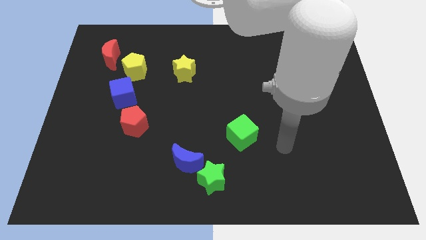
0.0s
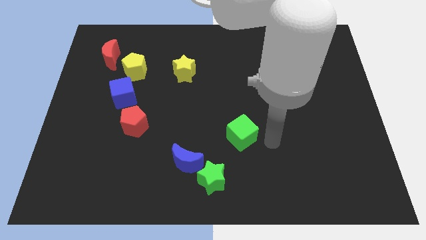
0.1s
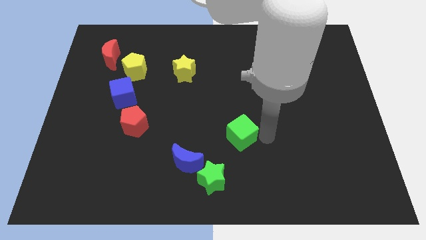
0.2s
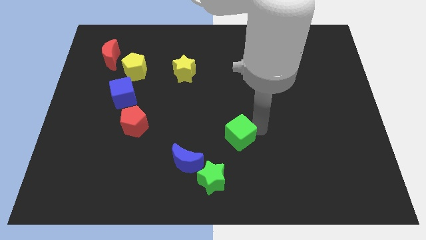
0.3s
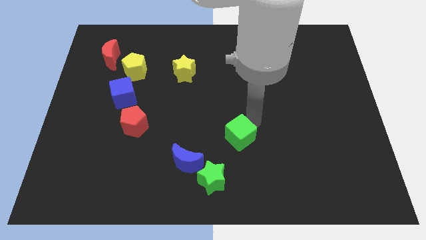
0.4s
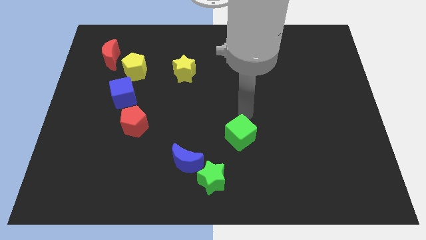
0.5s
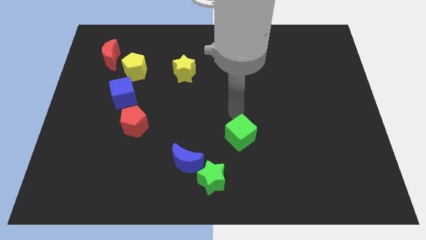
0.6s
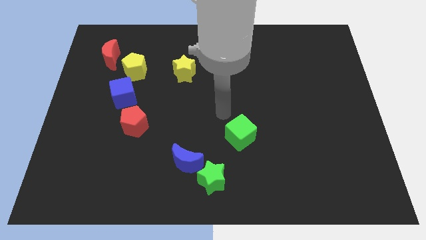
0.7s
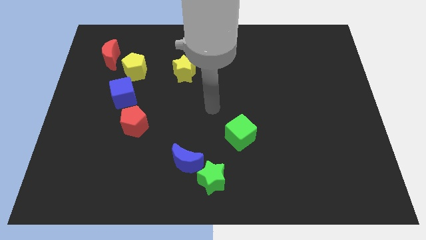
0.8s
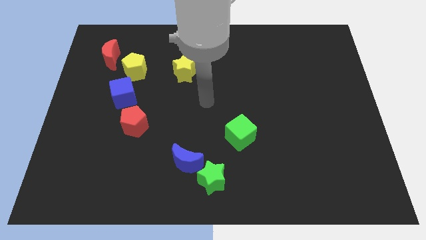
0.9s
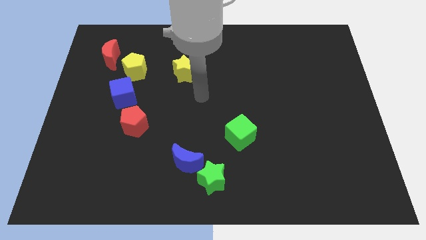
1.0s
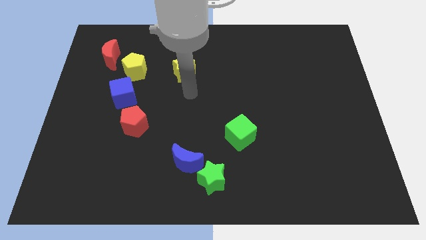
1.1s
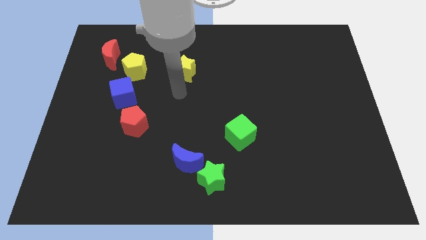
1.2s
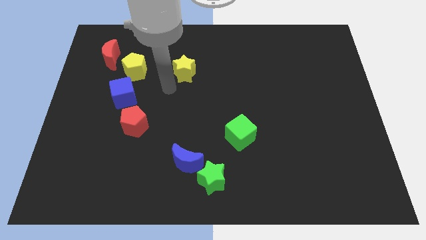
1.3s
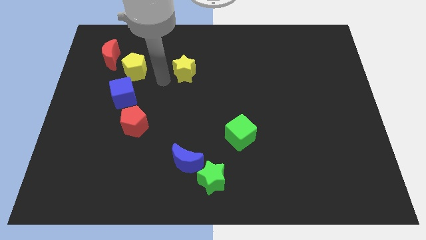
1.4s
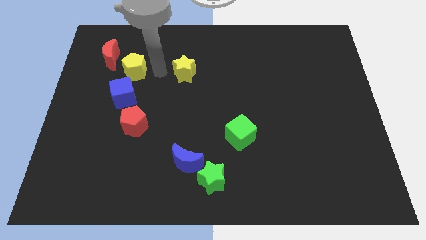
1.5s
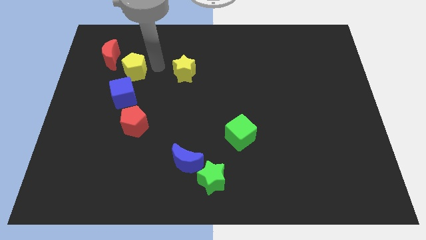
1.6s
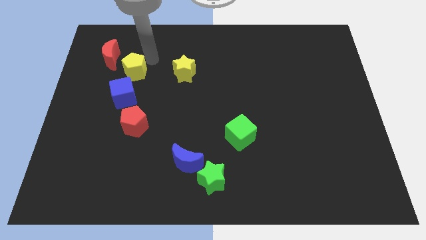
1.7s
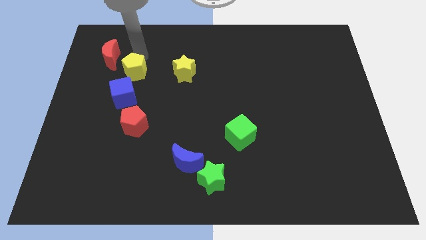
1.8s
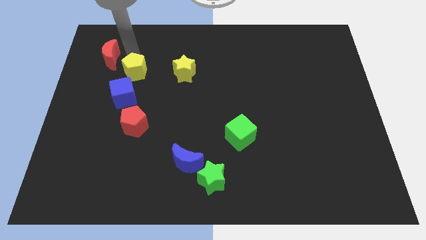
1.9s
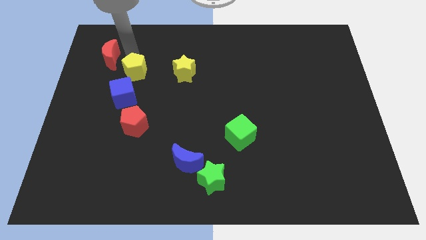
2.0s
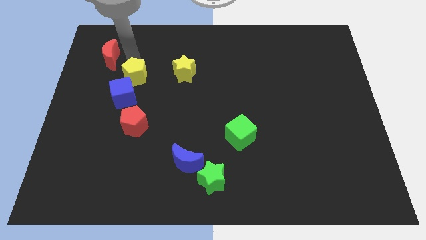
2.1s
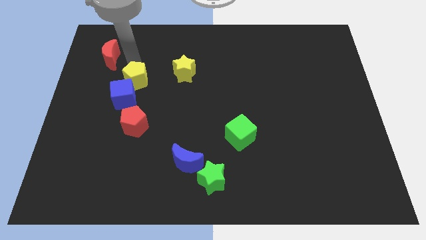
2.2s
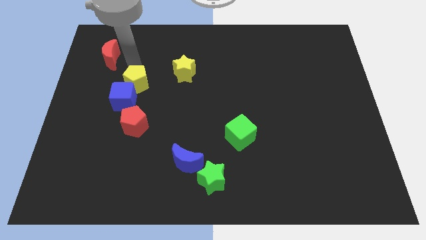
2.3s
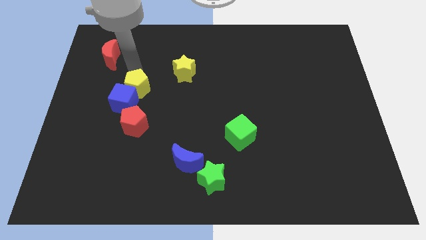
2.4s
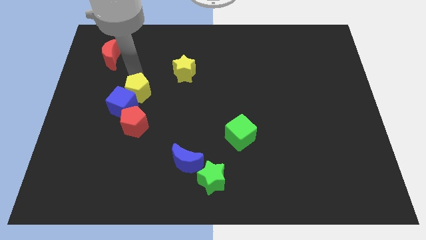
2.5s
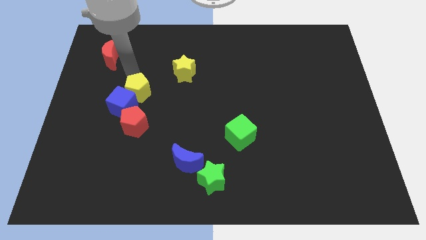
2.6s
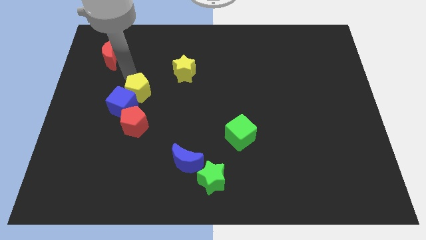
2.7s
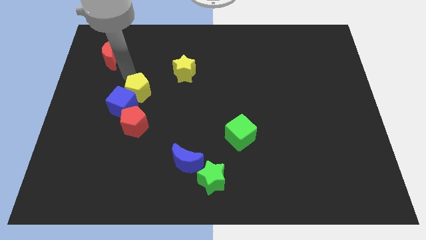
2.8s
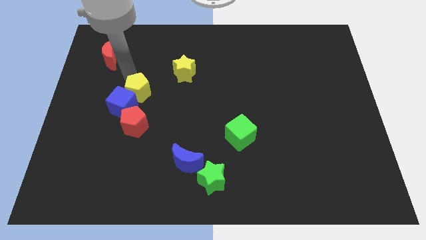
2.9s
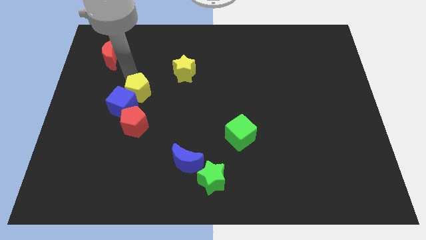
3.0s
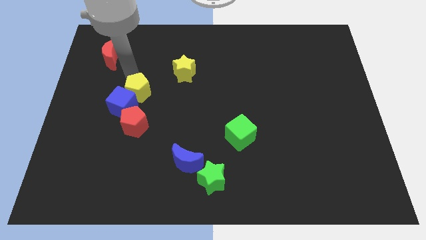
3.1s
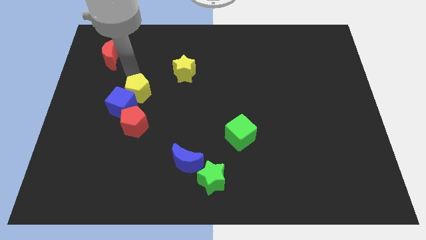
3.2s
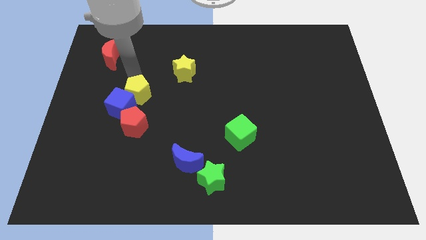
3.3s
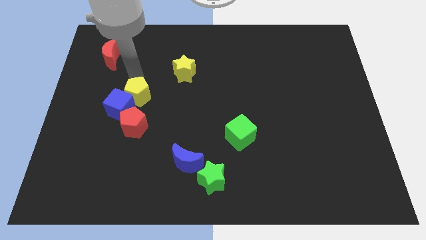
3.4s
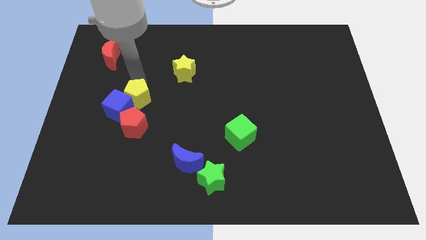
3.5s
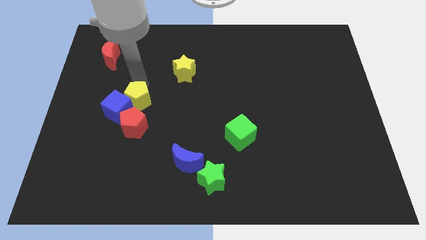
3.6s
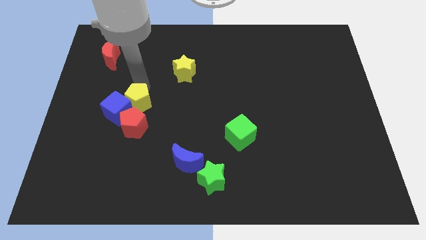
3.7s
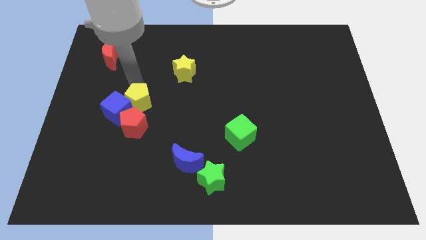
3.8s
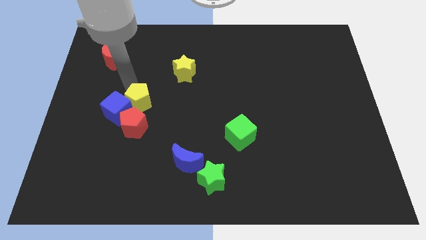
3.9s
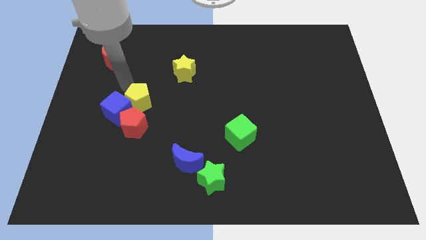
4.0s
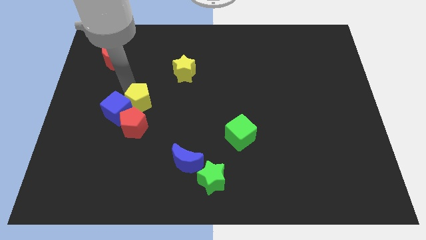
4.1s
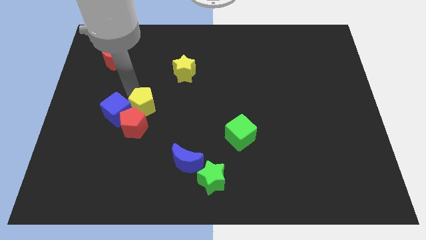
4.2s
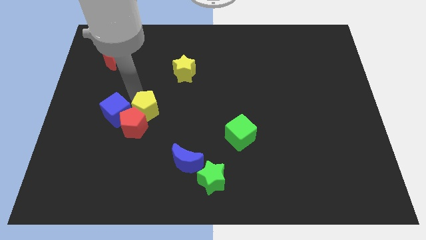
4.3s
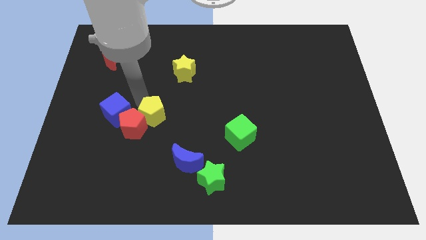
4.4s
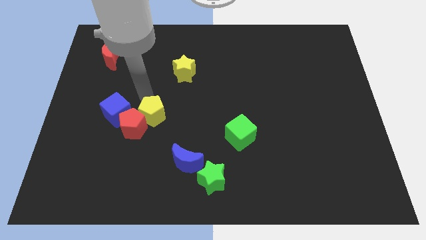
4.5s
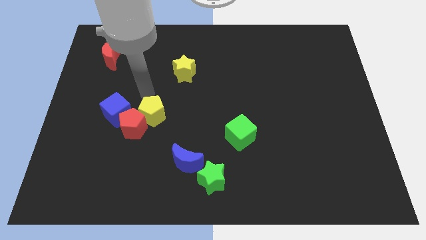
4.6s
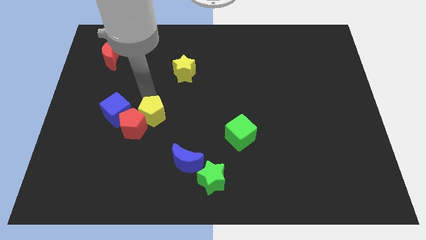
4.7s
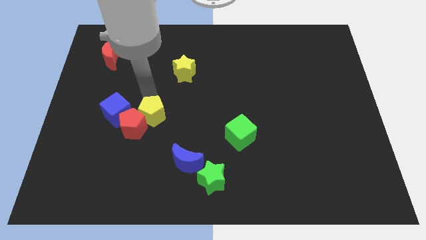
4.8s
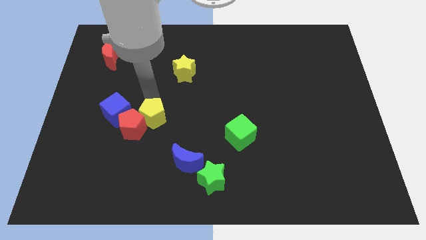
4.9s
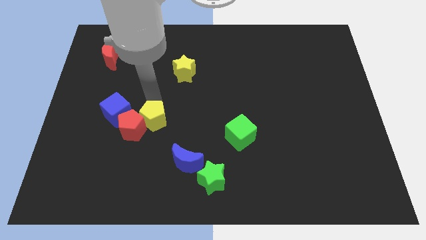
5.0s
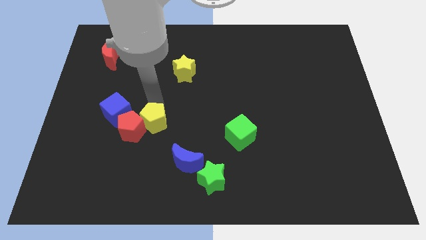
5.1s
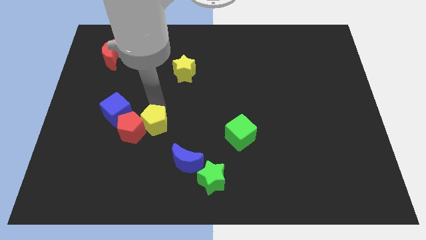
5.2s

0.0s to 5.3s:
put the yellow pentagon to the top left of the blue moon

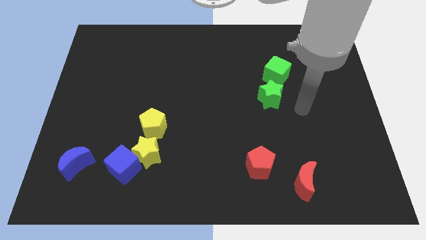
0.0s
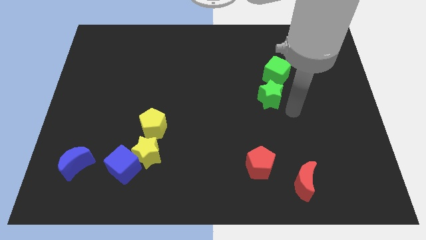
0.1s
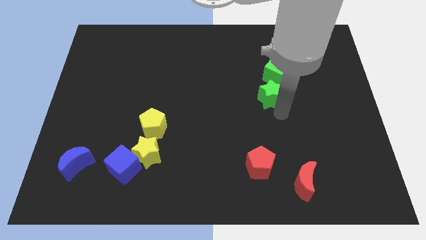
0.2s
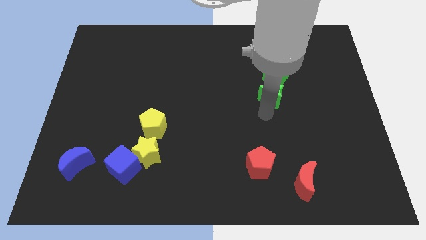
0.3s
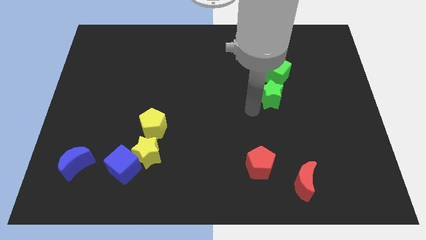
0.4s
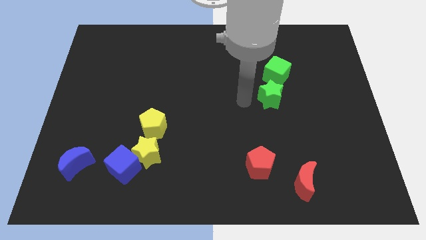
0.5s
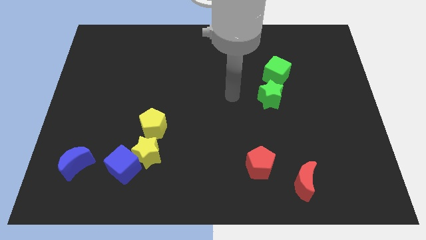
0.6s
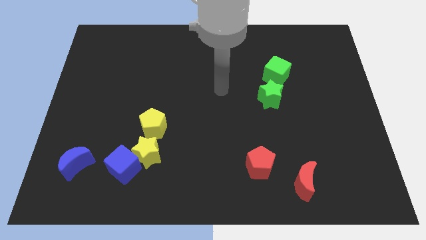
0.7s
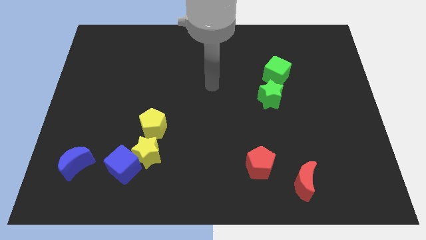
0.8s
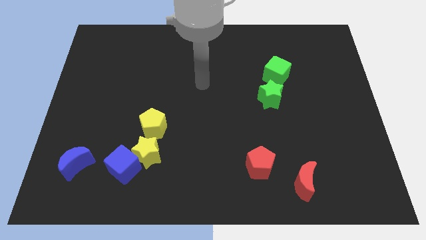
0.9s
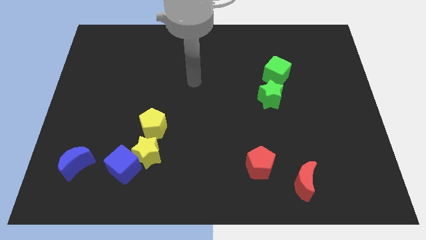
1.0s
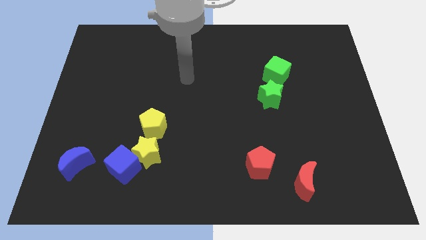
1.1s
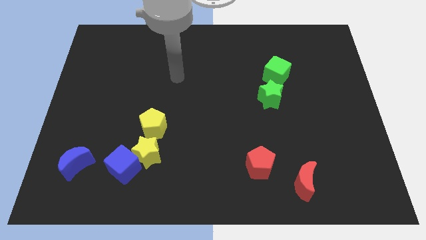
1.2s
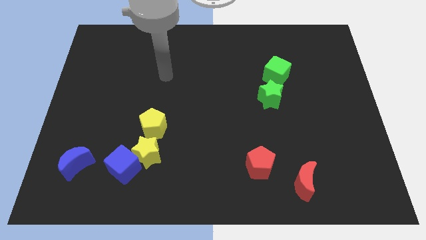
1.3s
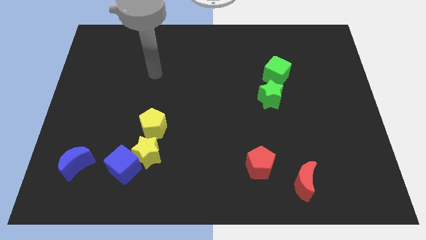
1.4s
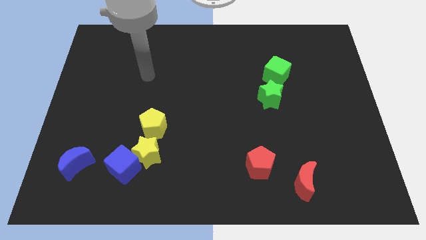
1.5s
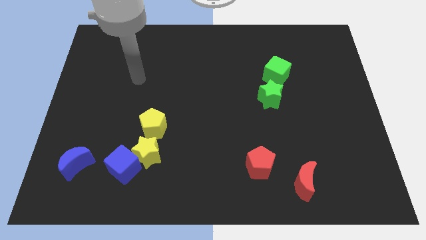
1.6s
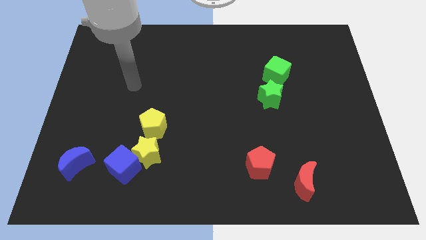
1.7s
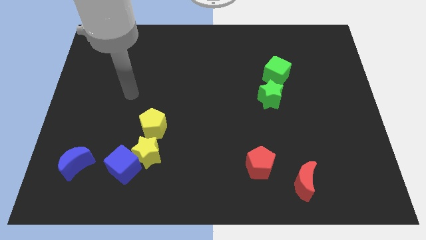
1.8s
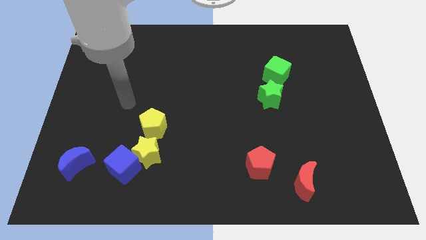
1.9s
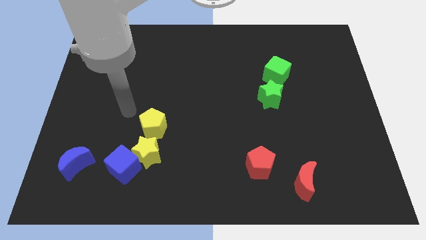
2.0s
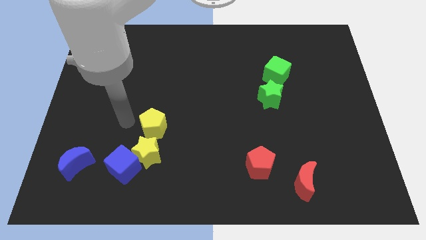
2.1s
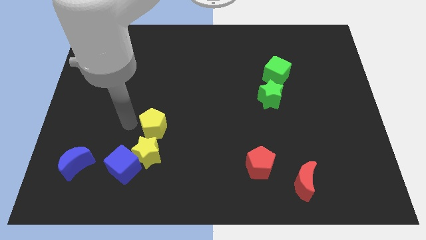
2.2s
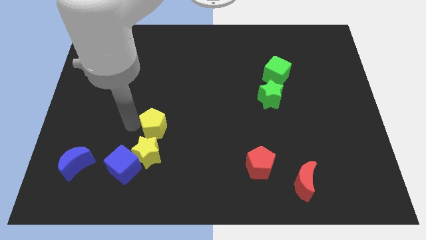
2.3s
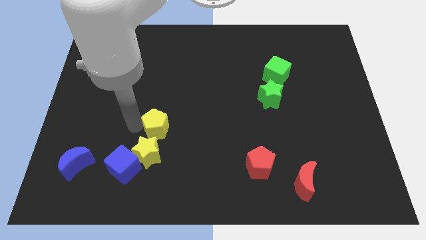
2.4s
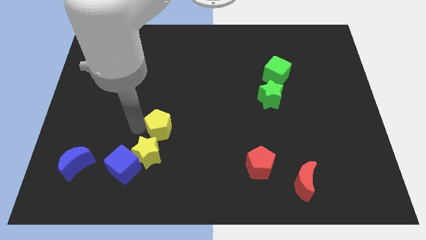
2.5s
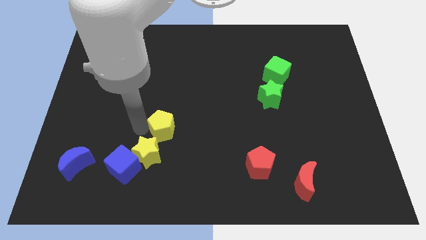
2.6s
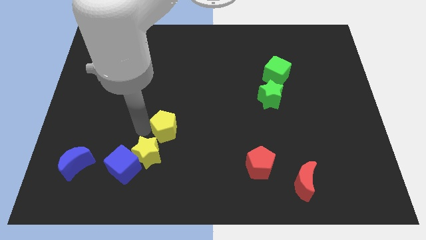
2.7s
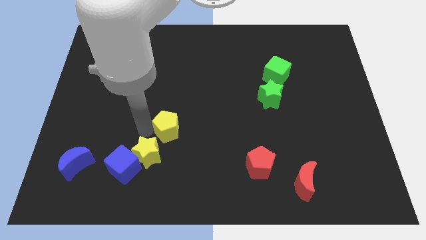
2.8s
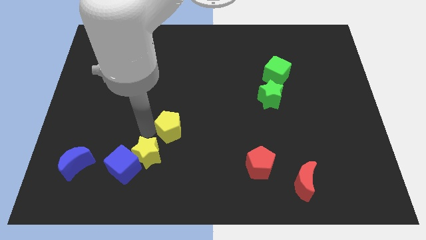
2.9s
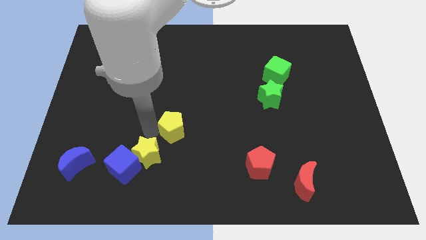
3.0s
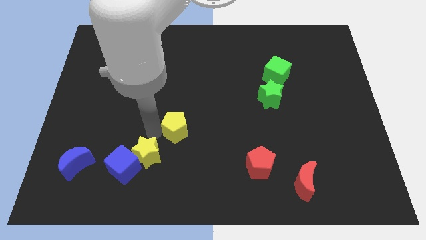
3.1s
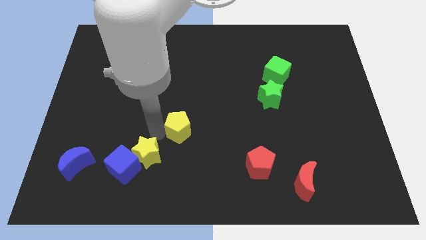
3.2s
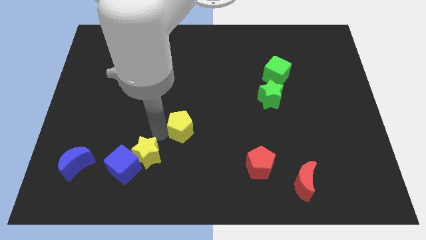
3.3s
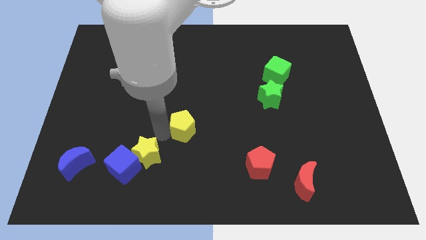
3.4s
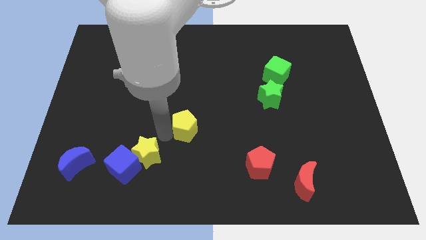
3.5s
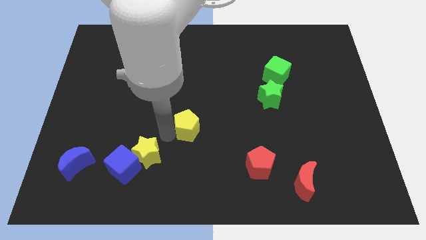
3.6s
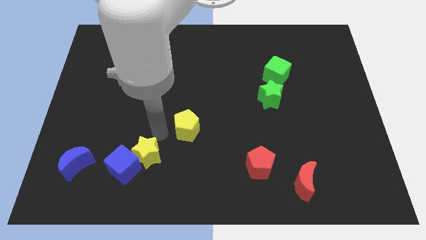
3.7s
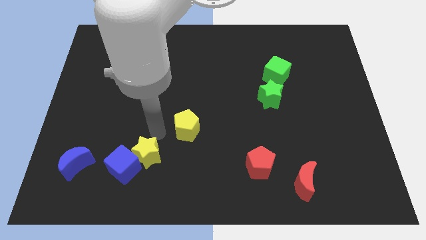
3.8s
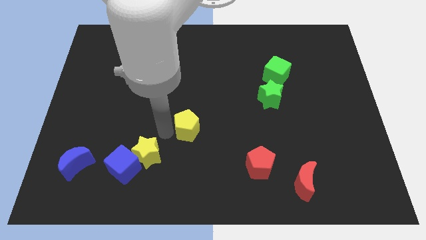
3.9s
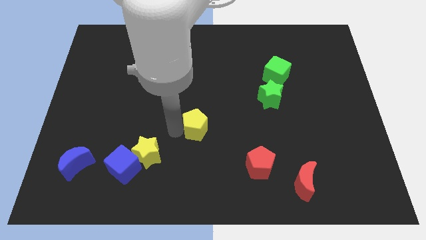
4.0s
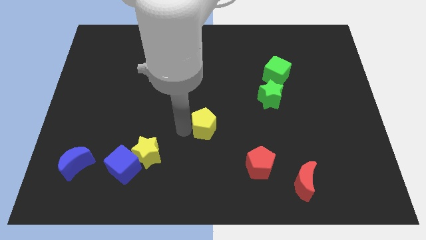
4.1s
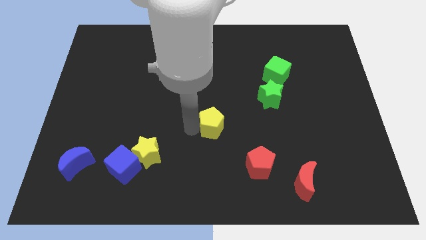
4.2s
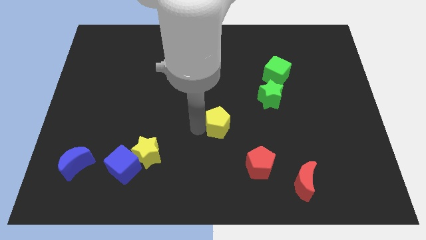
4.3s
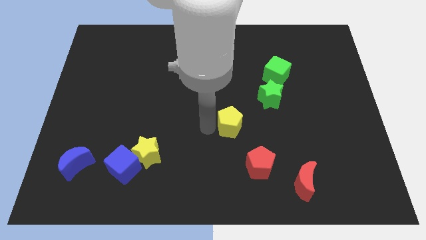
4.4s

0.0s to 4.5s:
move the yellow pentagon to the bottom left of the green star
